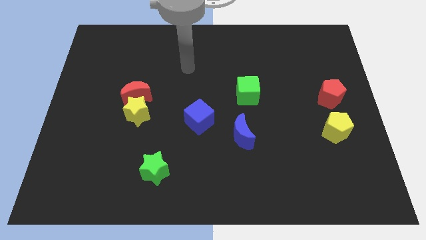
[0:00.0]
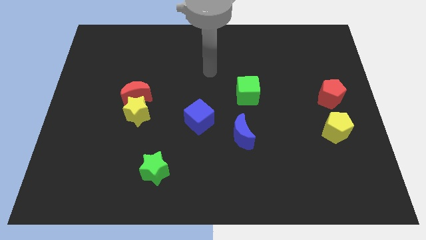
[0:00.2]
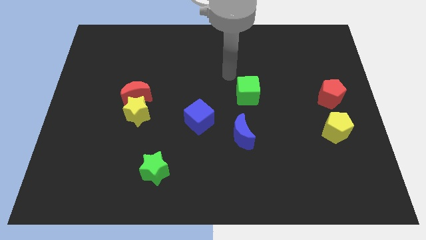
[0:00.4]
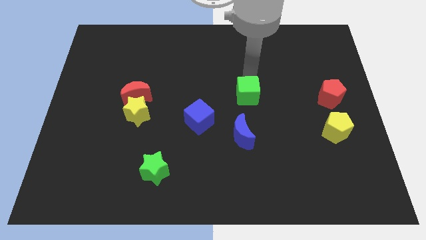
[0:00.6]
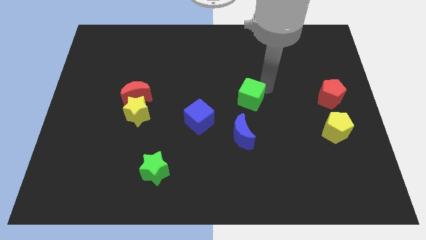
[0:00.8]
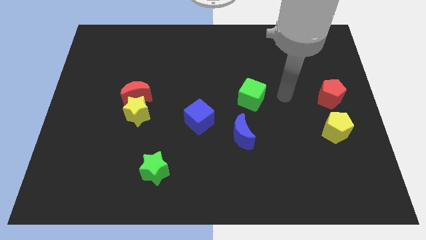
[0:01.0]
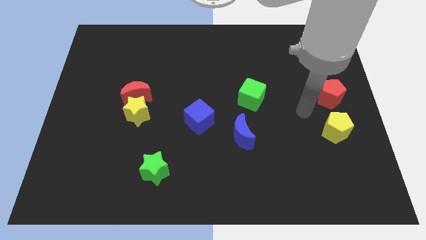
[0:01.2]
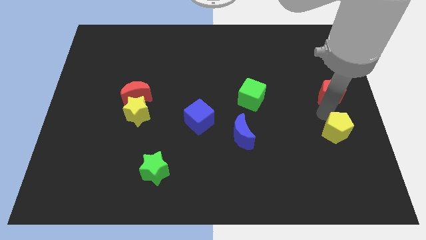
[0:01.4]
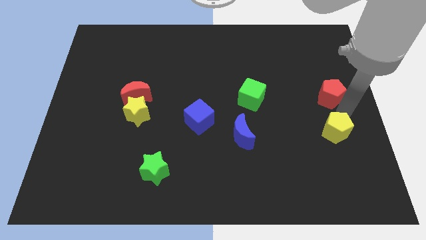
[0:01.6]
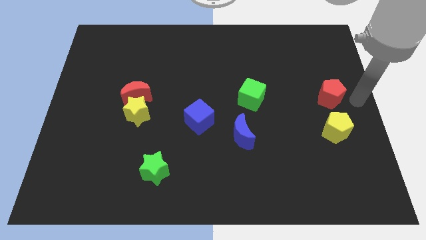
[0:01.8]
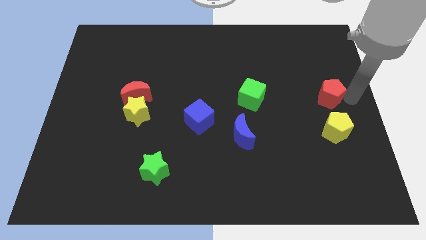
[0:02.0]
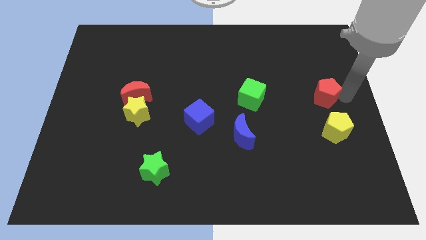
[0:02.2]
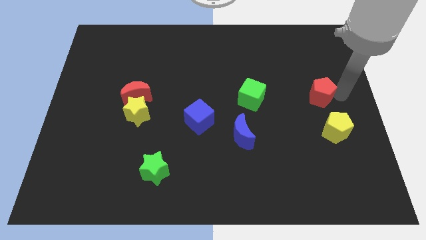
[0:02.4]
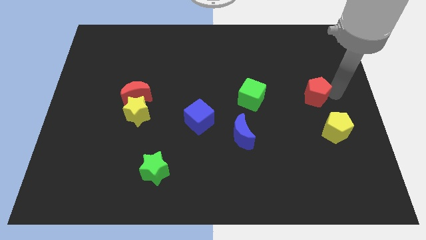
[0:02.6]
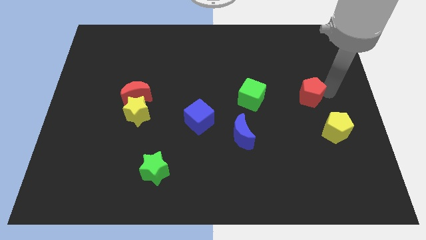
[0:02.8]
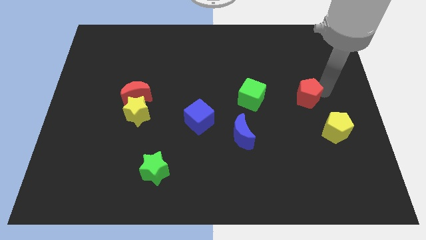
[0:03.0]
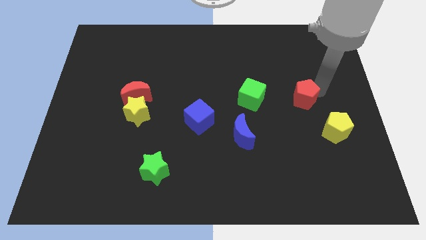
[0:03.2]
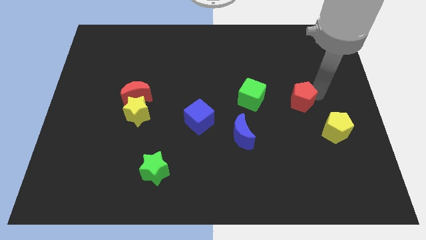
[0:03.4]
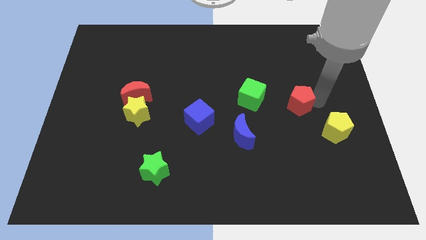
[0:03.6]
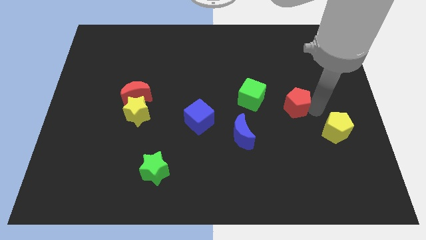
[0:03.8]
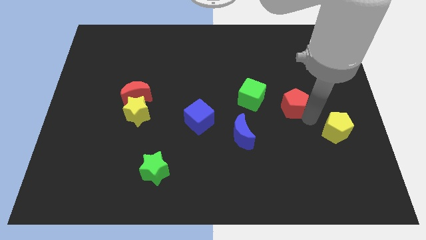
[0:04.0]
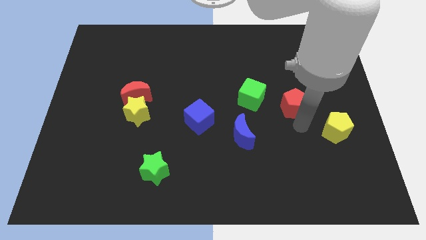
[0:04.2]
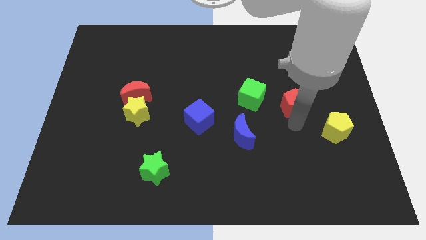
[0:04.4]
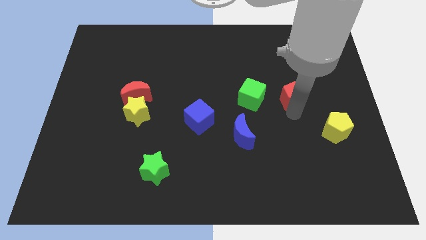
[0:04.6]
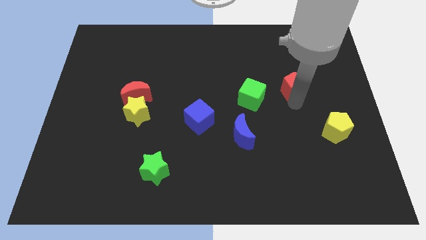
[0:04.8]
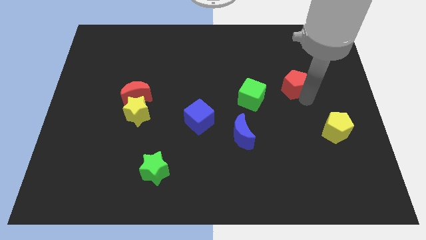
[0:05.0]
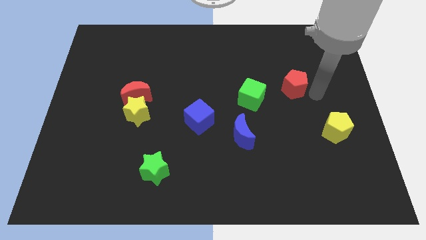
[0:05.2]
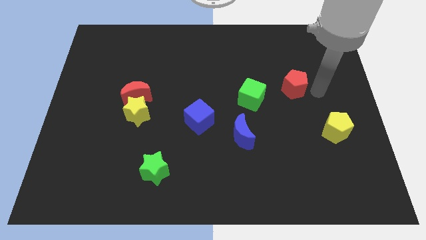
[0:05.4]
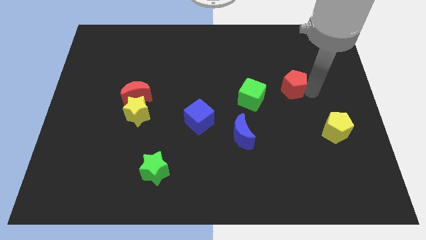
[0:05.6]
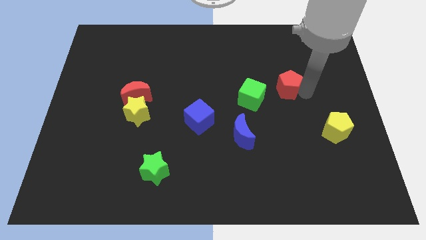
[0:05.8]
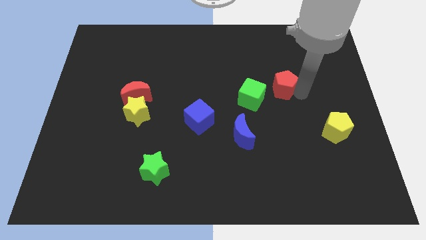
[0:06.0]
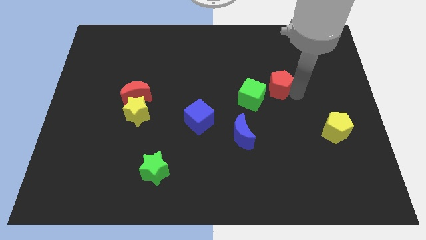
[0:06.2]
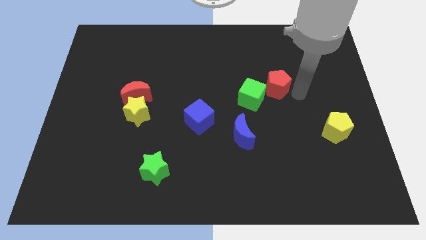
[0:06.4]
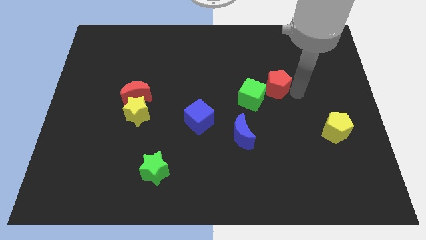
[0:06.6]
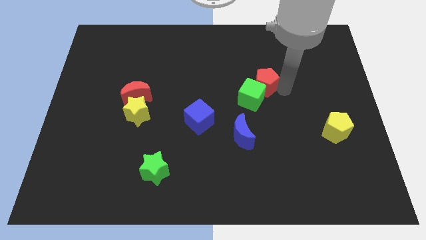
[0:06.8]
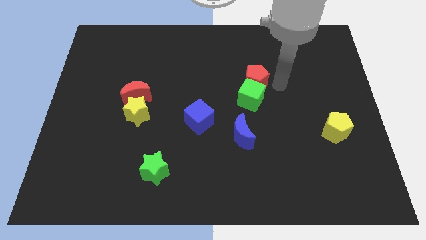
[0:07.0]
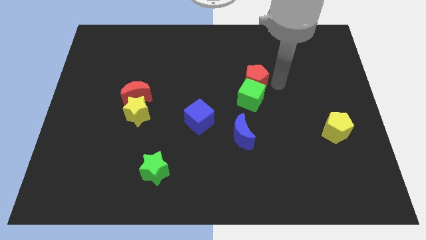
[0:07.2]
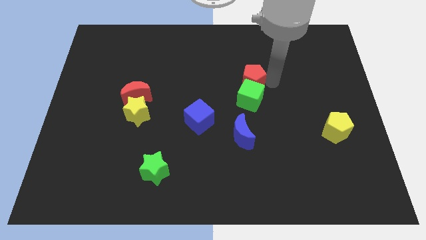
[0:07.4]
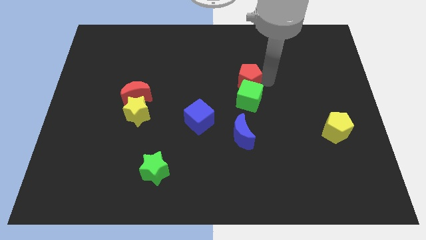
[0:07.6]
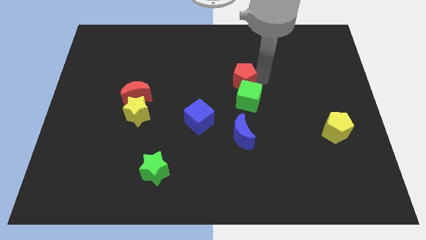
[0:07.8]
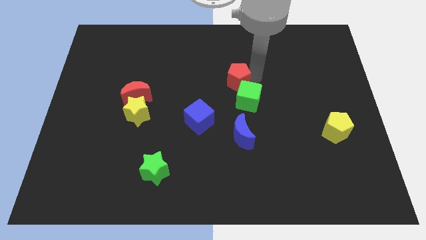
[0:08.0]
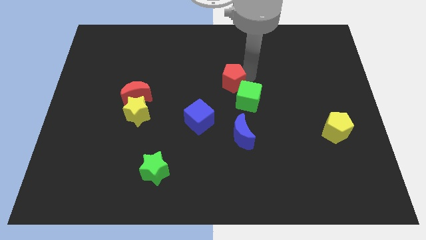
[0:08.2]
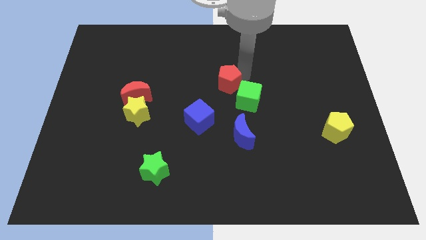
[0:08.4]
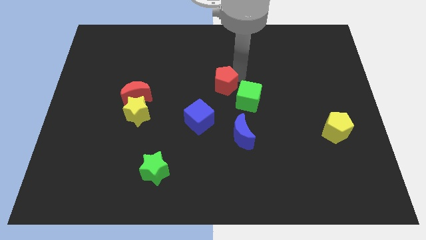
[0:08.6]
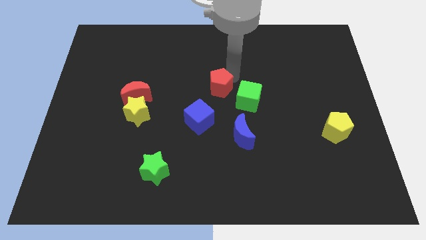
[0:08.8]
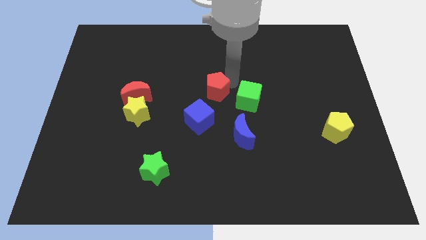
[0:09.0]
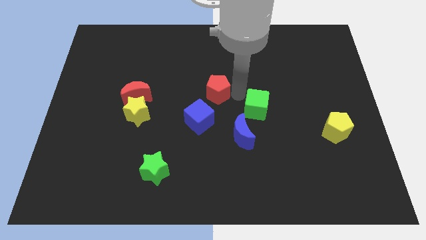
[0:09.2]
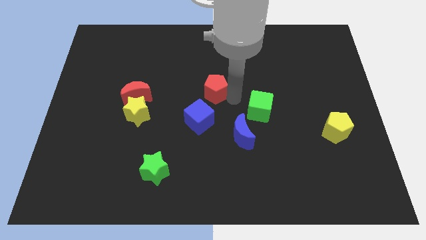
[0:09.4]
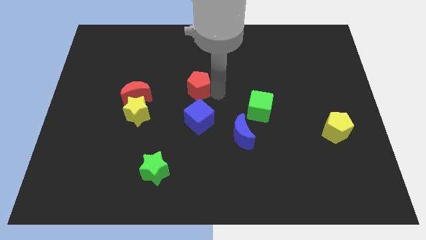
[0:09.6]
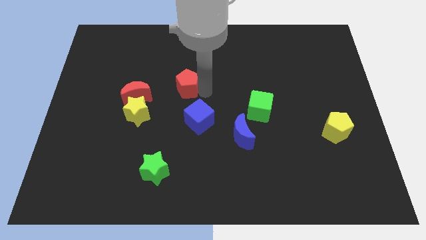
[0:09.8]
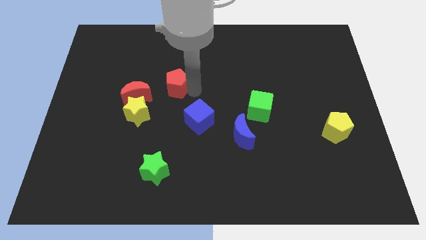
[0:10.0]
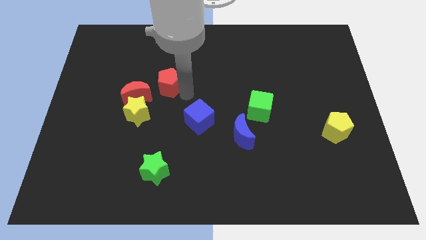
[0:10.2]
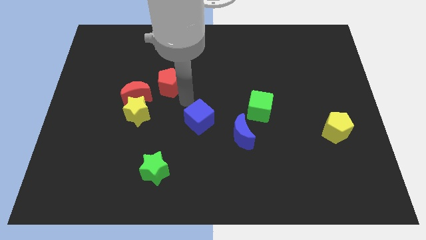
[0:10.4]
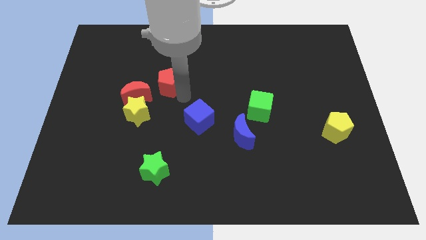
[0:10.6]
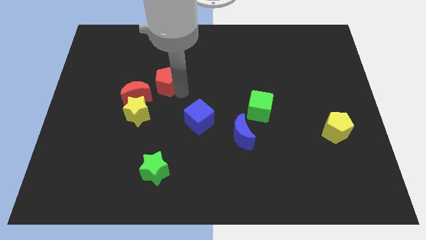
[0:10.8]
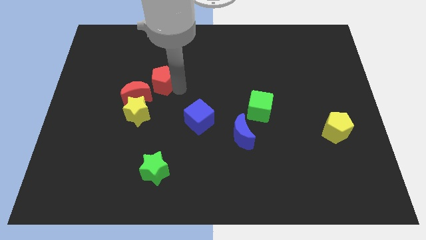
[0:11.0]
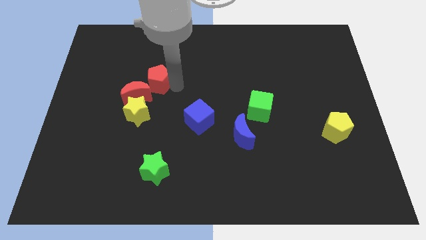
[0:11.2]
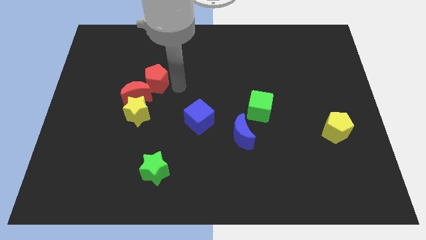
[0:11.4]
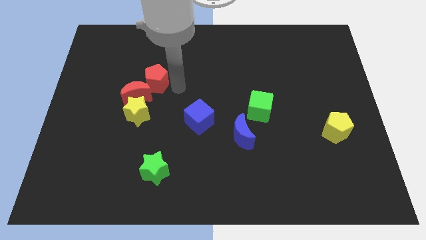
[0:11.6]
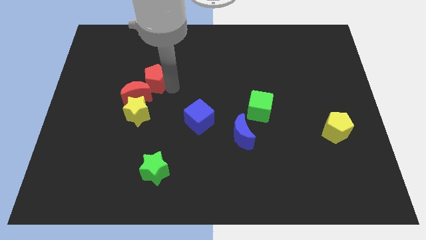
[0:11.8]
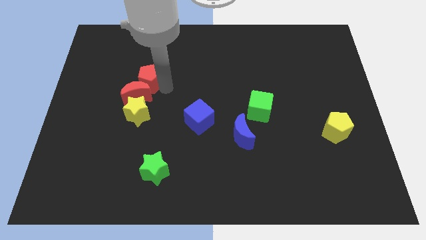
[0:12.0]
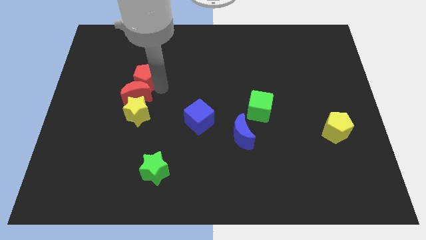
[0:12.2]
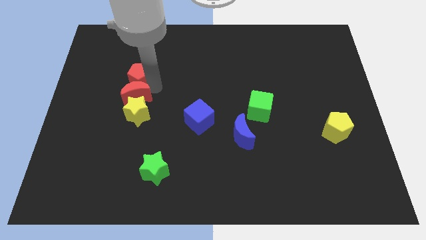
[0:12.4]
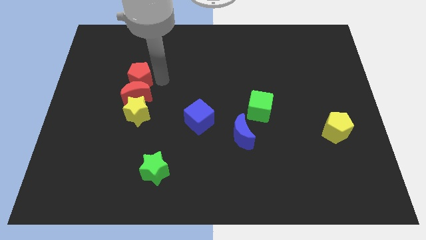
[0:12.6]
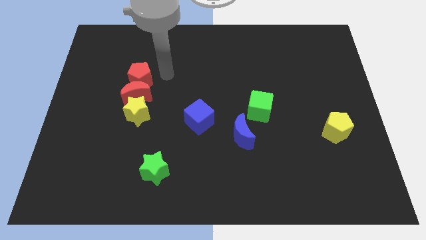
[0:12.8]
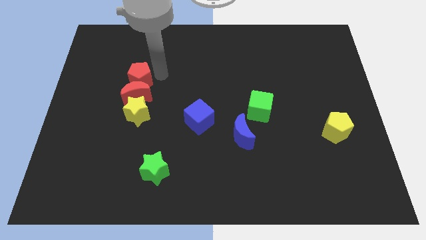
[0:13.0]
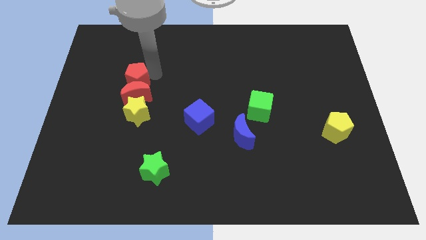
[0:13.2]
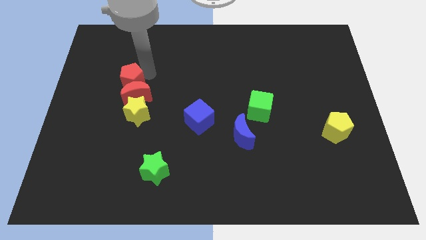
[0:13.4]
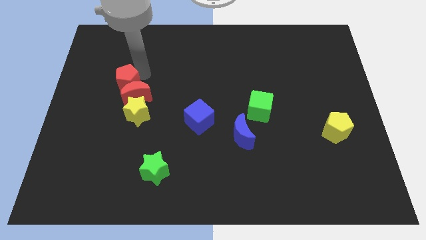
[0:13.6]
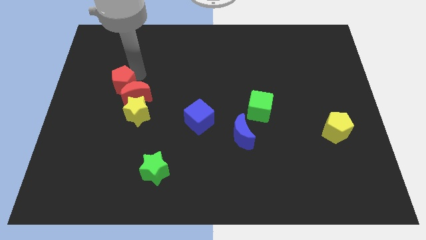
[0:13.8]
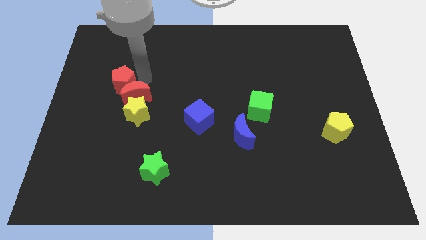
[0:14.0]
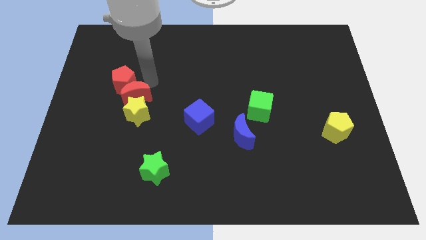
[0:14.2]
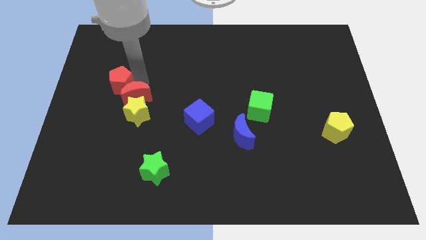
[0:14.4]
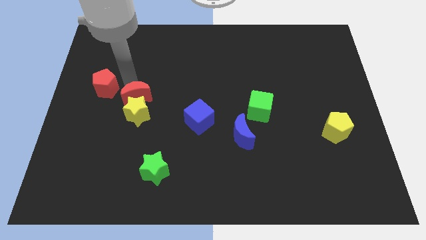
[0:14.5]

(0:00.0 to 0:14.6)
move the red pentagon to the left side of the board
